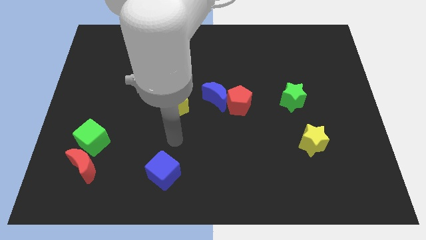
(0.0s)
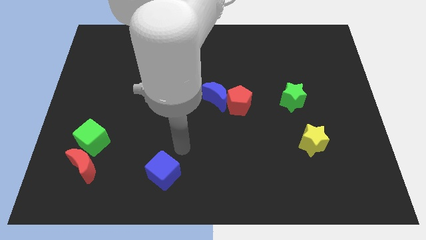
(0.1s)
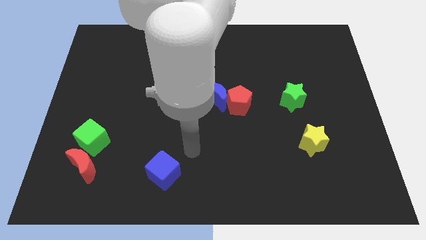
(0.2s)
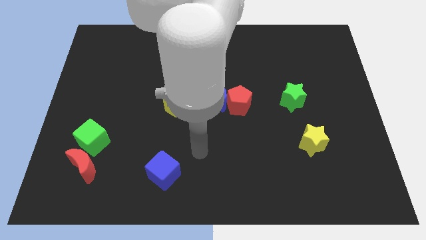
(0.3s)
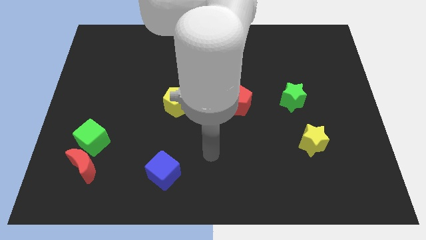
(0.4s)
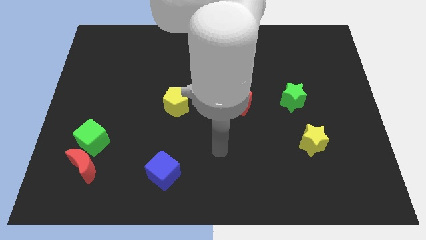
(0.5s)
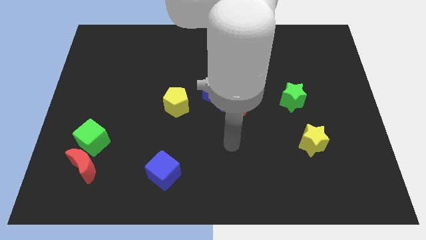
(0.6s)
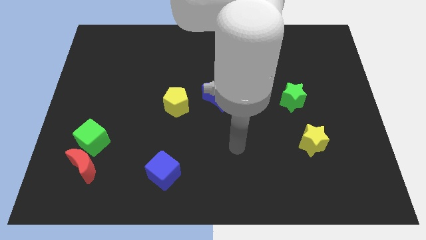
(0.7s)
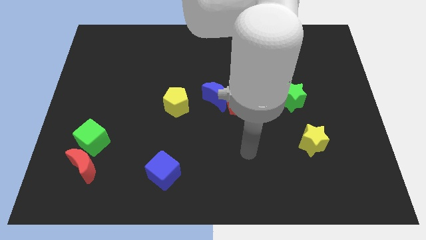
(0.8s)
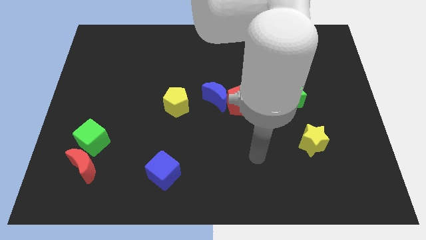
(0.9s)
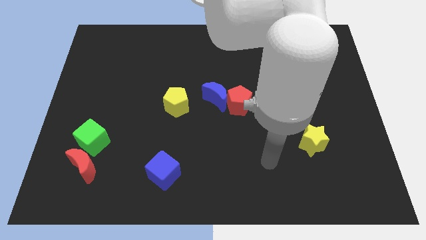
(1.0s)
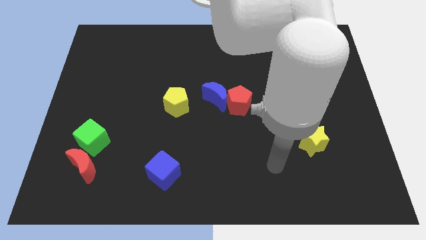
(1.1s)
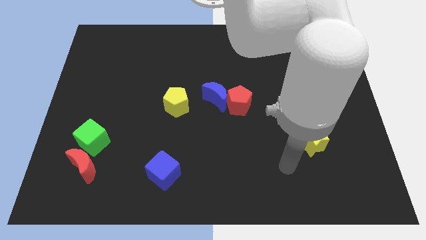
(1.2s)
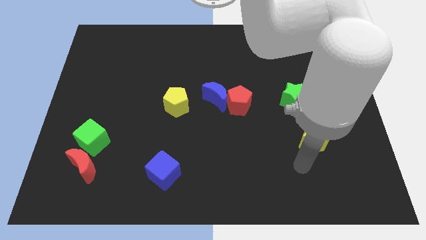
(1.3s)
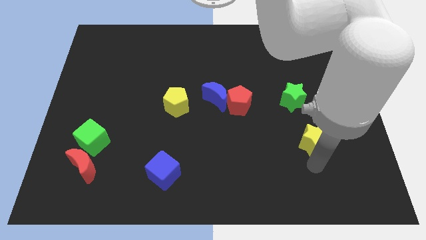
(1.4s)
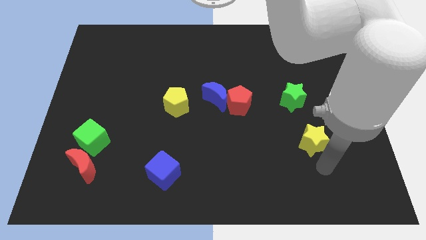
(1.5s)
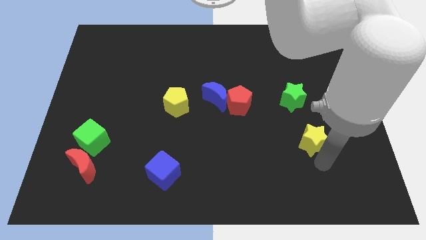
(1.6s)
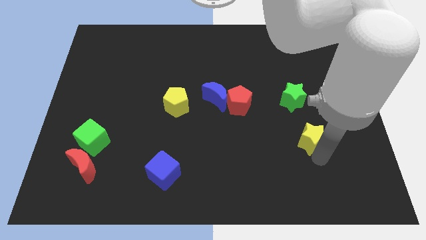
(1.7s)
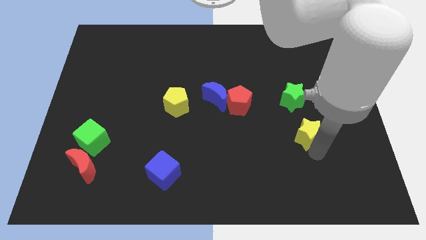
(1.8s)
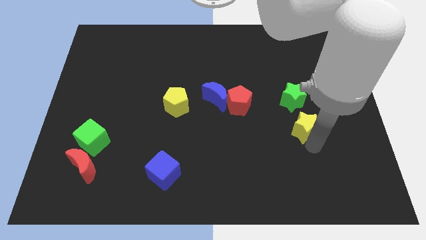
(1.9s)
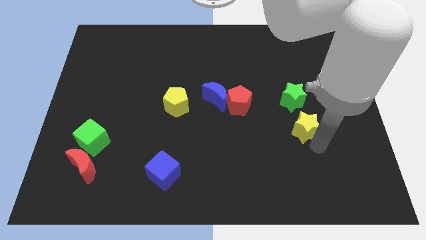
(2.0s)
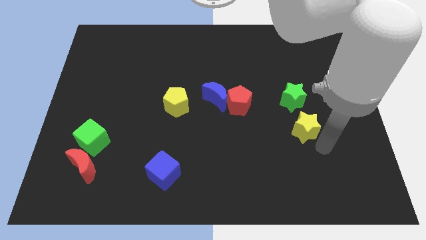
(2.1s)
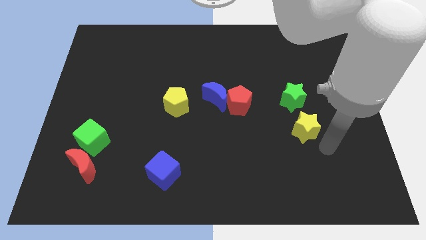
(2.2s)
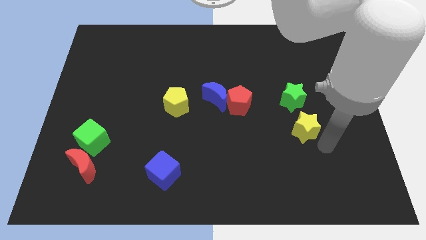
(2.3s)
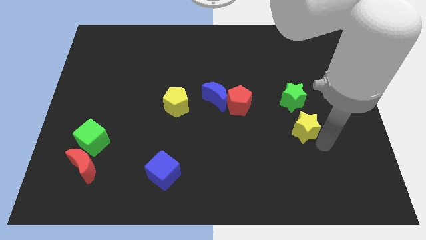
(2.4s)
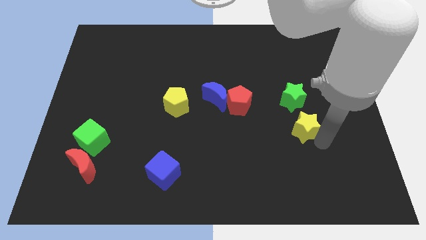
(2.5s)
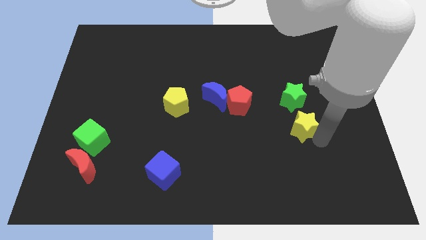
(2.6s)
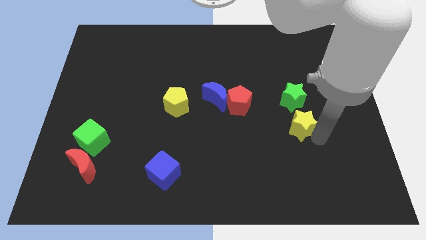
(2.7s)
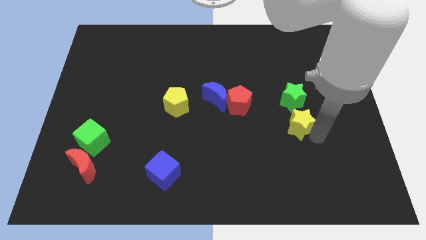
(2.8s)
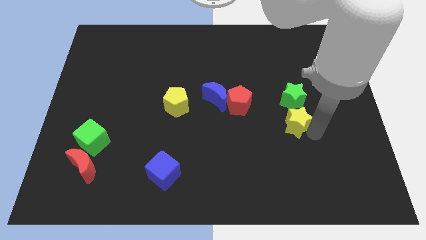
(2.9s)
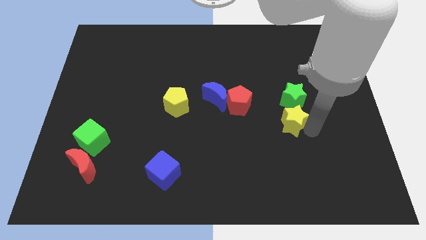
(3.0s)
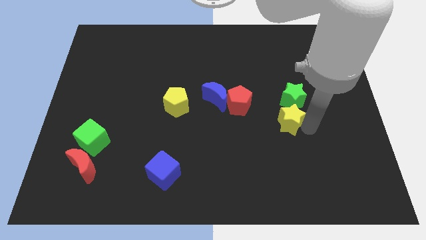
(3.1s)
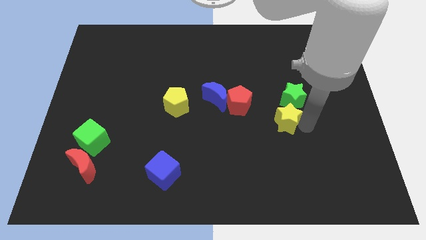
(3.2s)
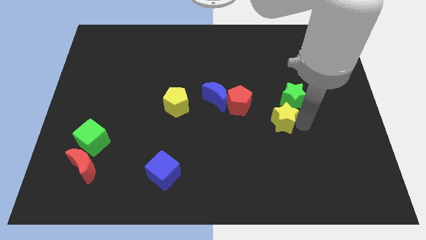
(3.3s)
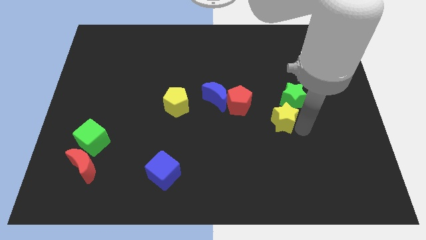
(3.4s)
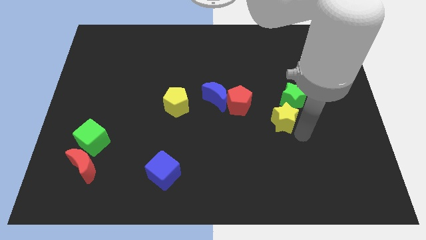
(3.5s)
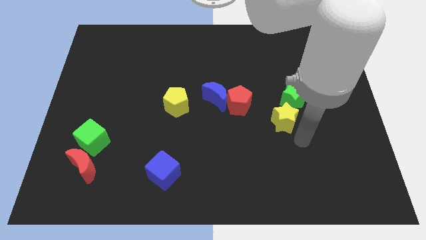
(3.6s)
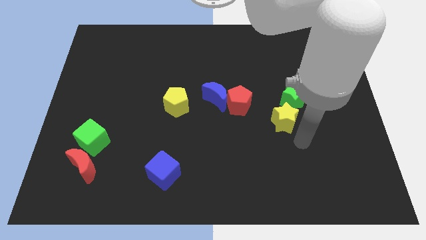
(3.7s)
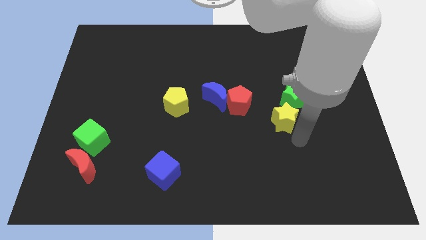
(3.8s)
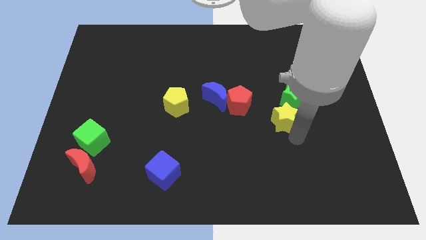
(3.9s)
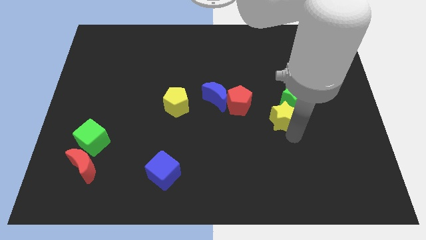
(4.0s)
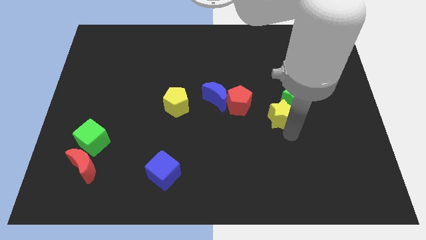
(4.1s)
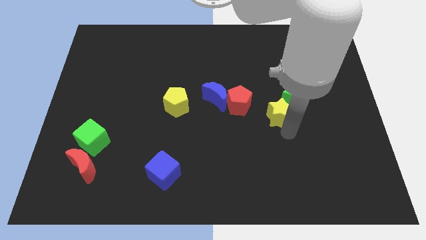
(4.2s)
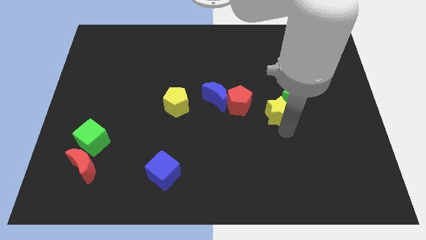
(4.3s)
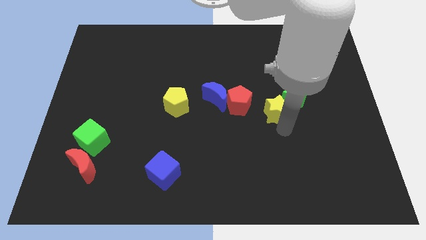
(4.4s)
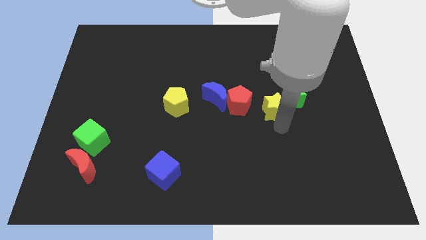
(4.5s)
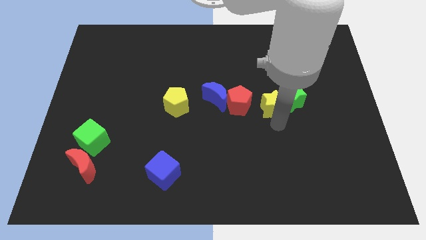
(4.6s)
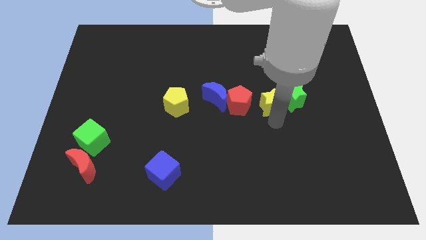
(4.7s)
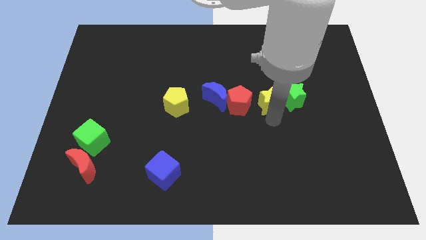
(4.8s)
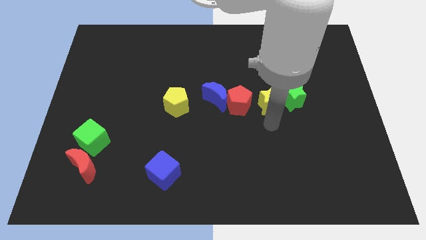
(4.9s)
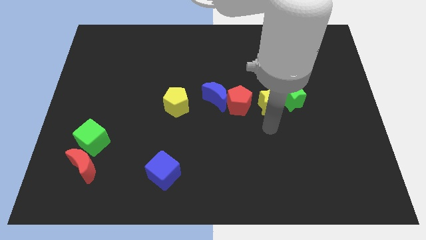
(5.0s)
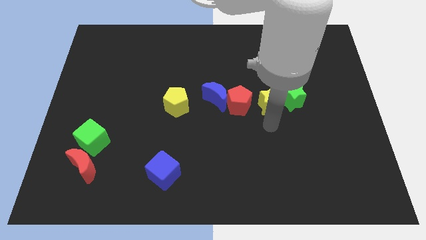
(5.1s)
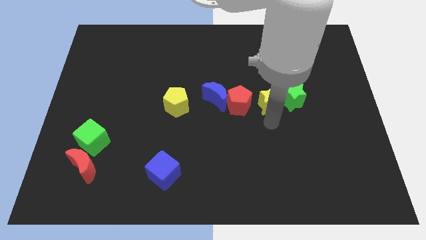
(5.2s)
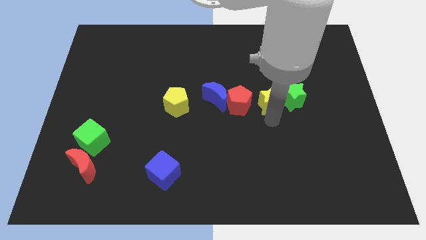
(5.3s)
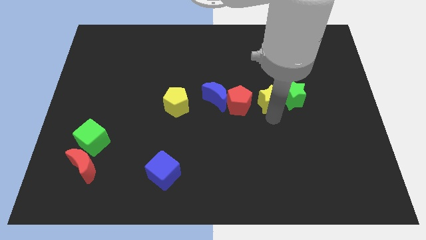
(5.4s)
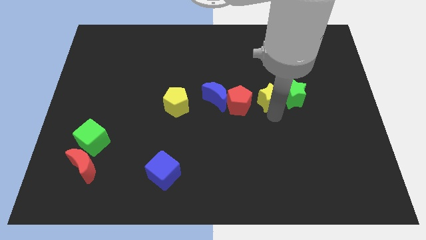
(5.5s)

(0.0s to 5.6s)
put the yellow star to the top left of the green star
